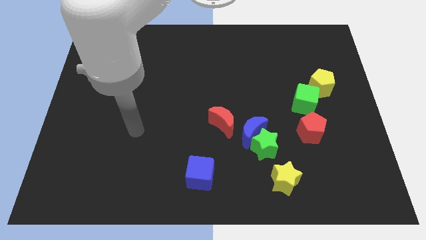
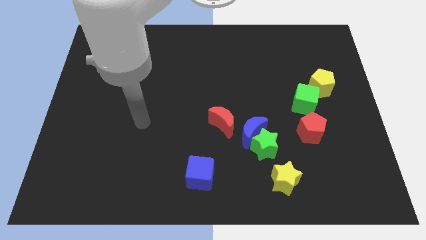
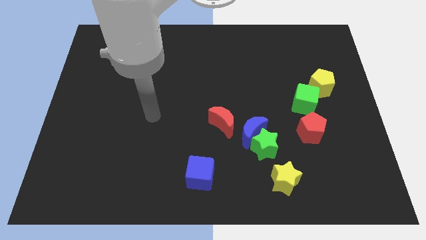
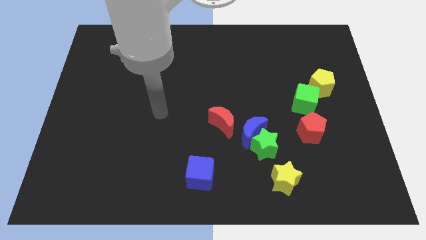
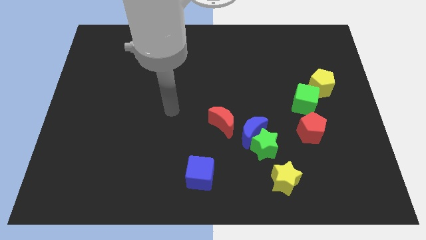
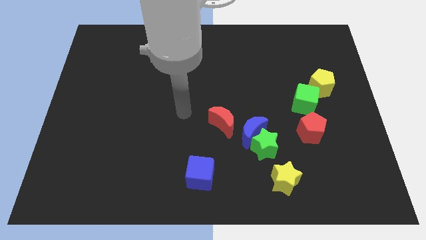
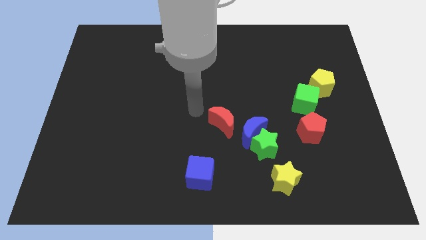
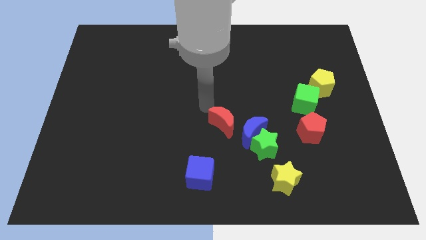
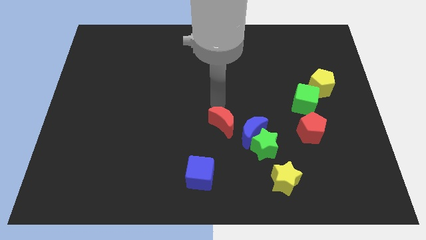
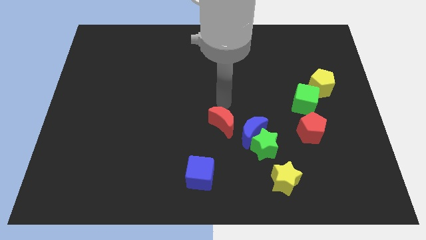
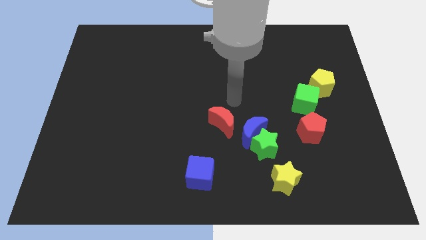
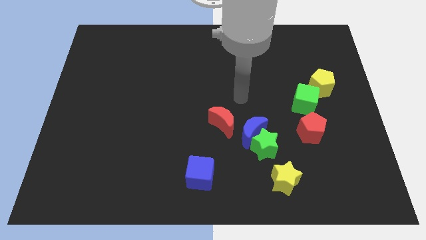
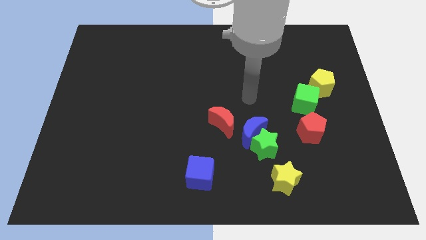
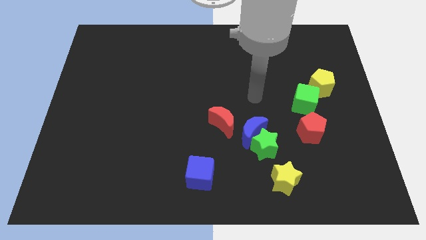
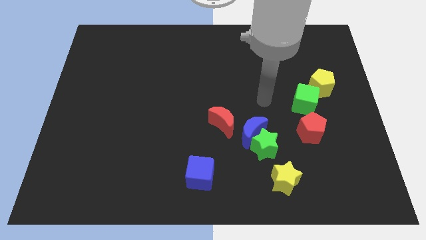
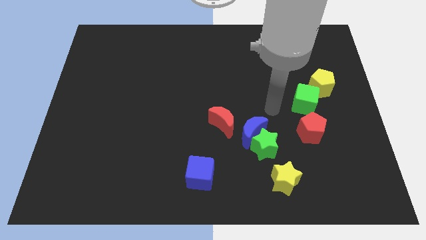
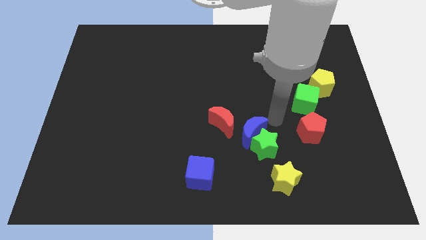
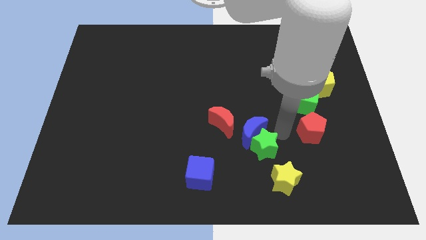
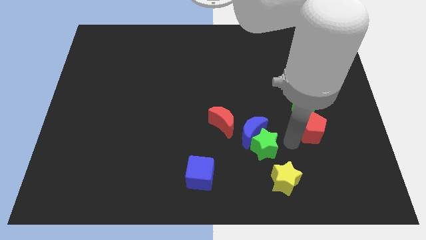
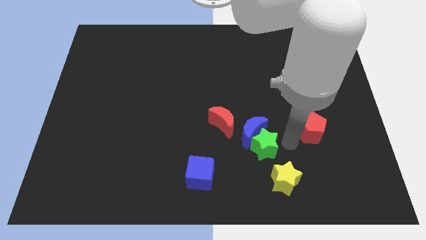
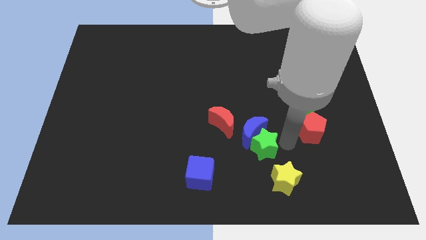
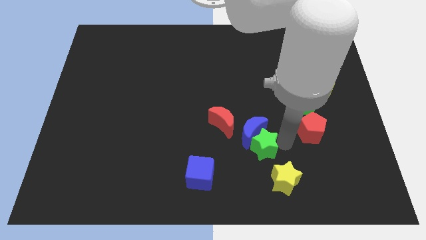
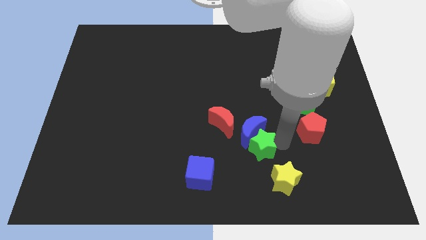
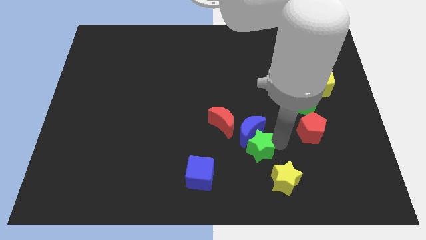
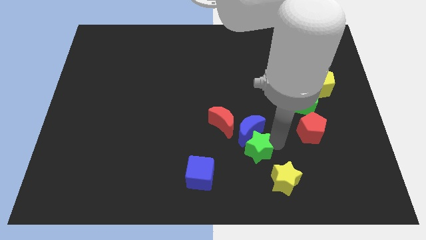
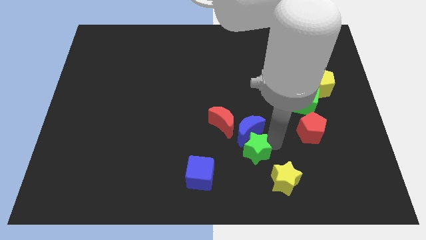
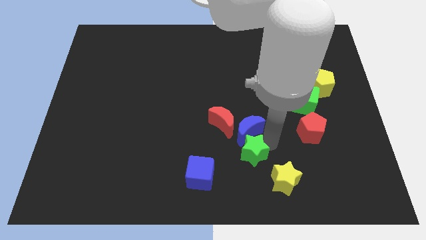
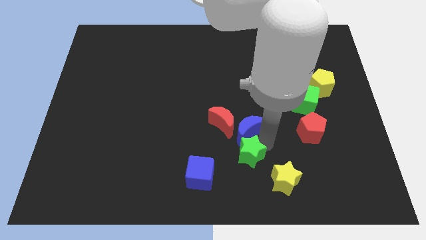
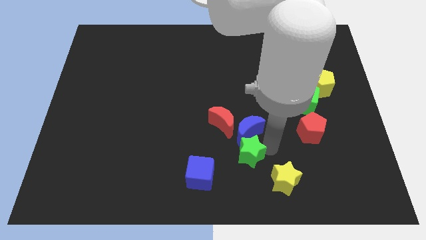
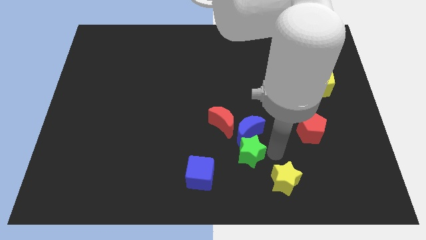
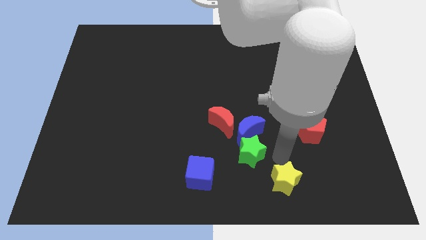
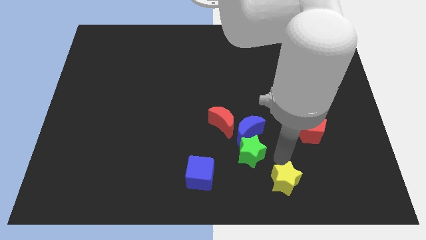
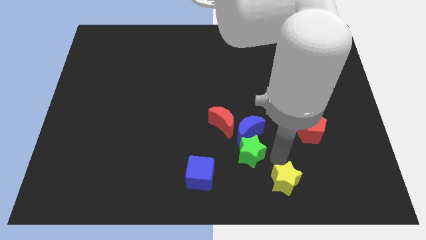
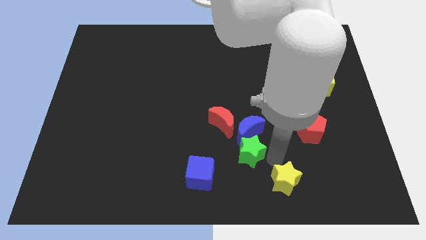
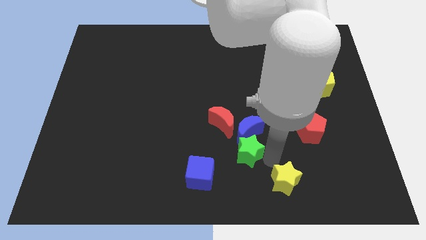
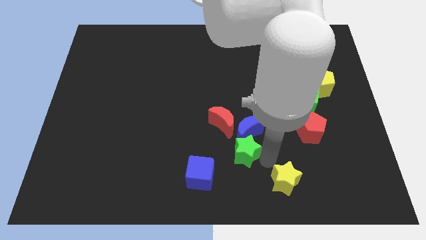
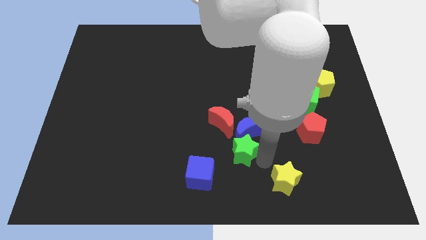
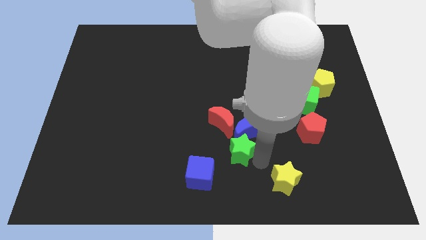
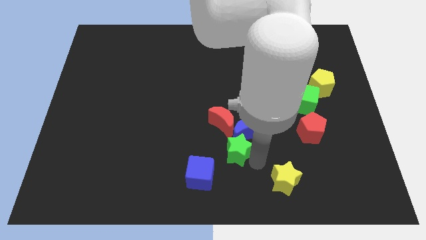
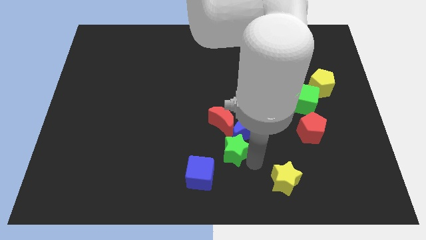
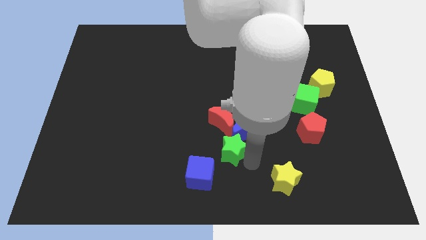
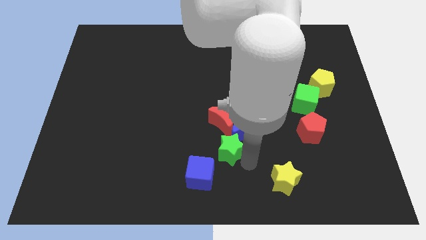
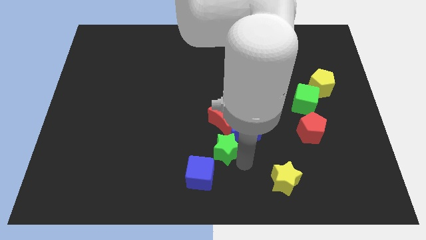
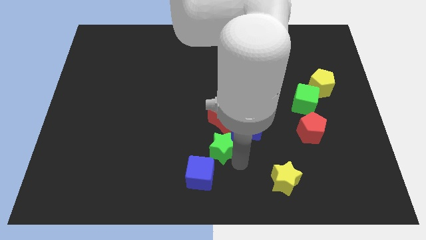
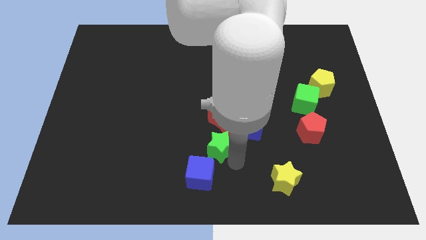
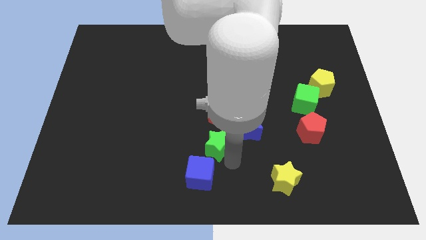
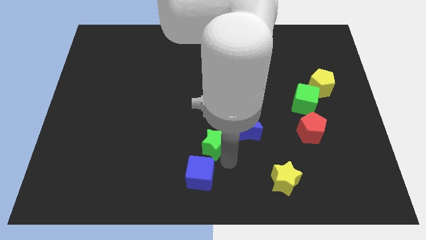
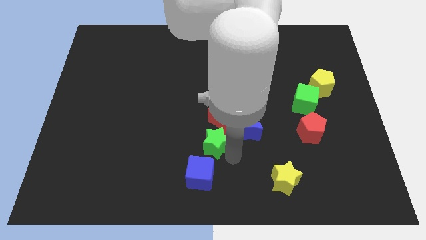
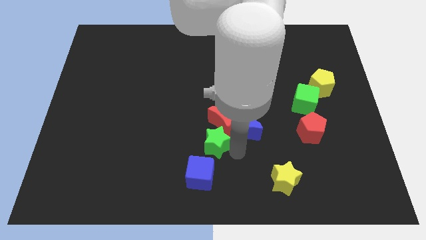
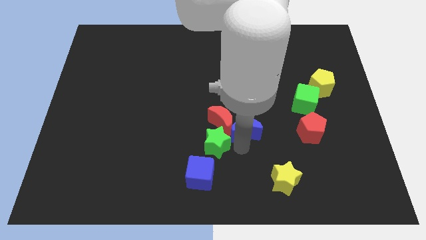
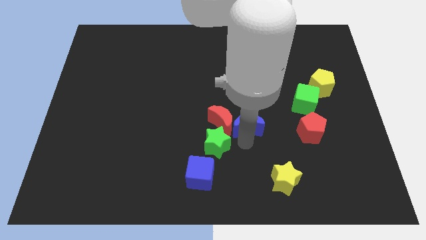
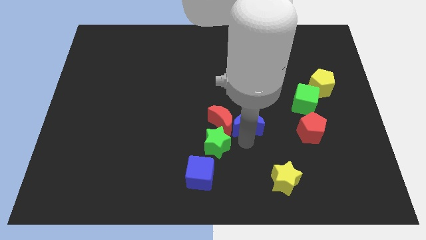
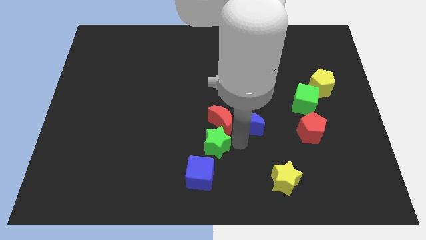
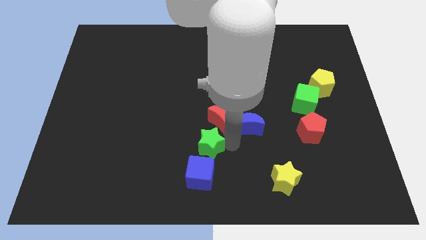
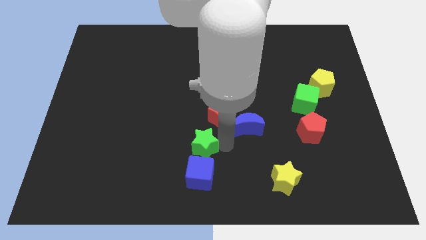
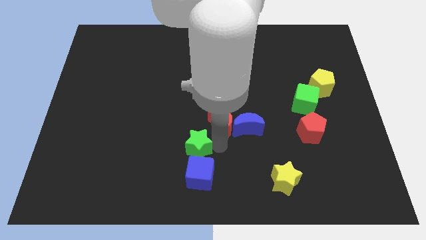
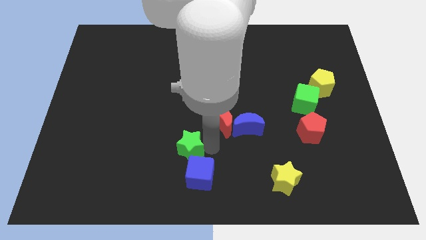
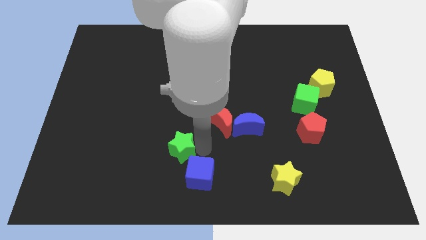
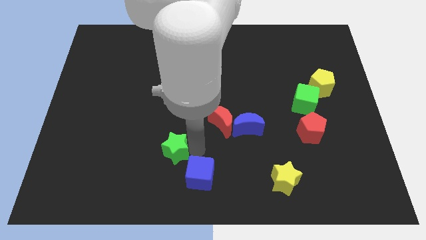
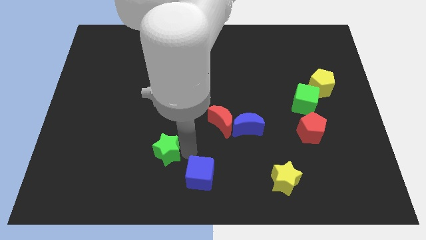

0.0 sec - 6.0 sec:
move the green star left

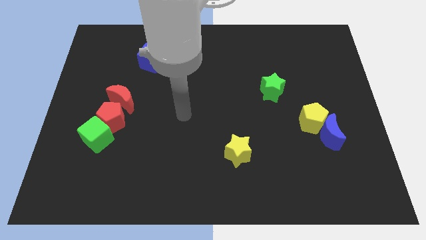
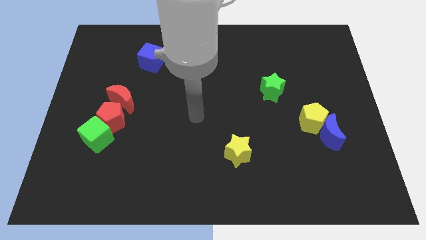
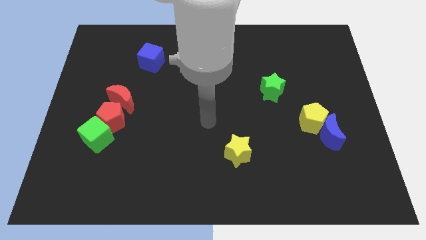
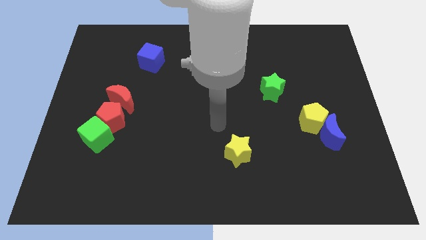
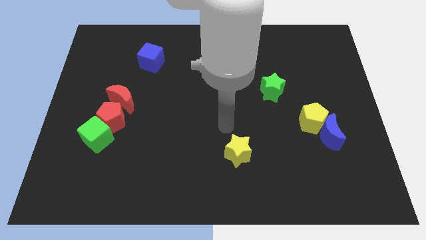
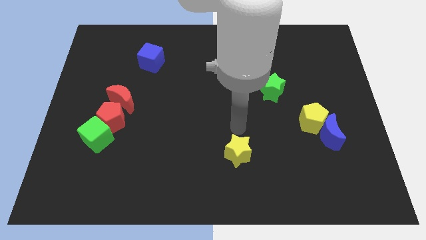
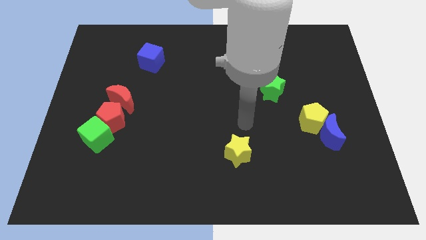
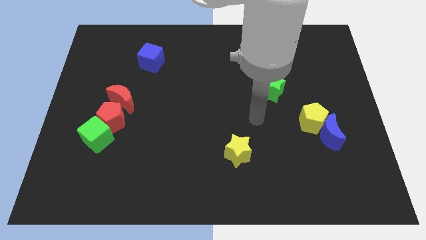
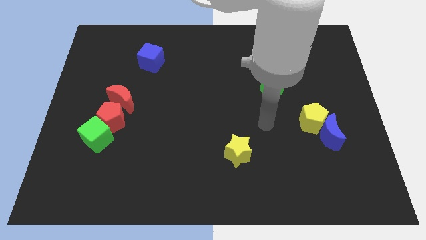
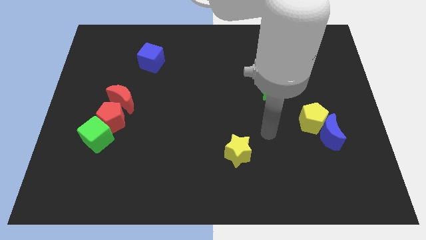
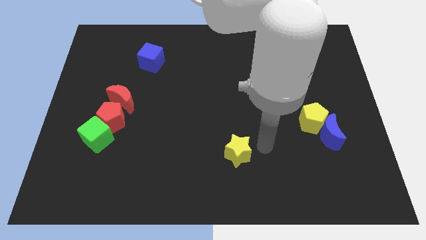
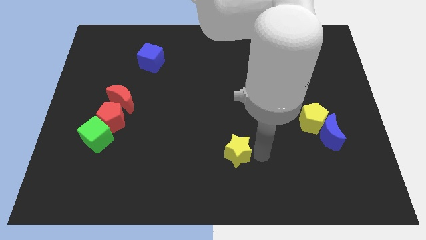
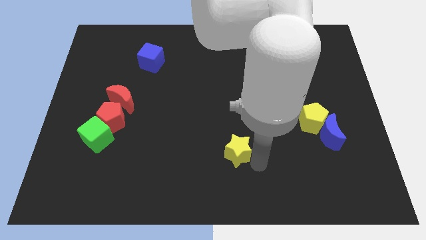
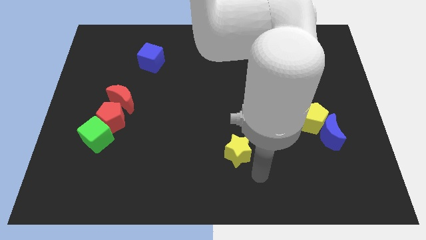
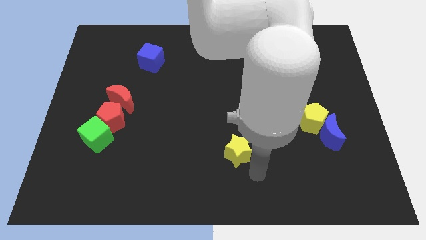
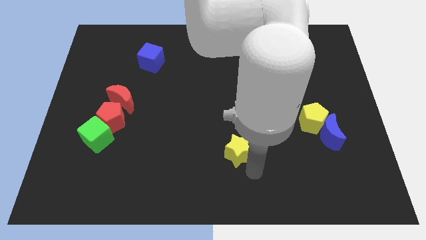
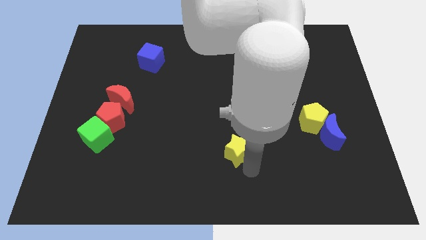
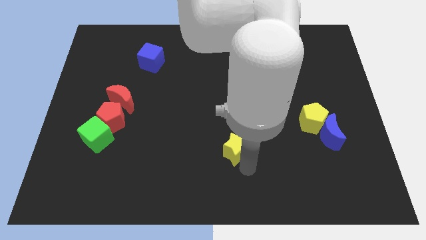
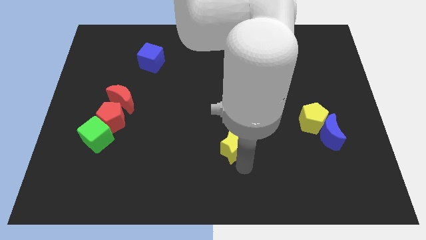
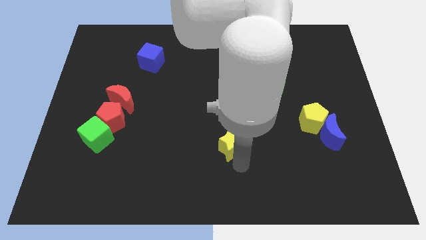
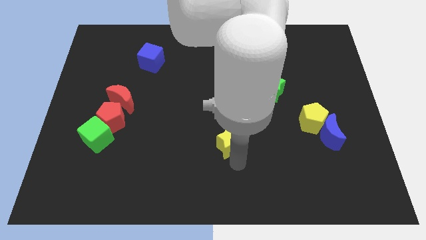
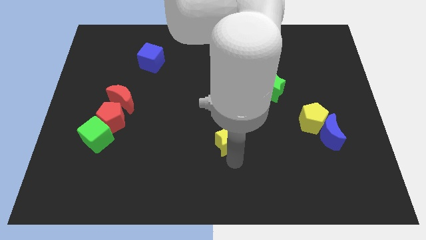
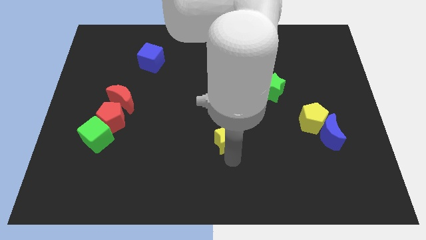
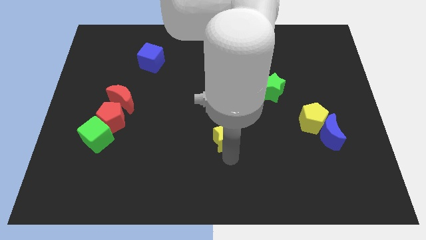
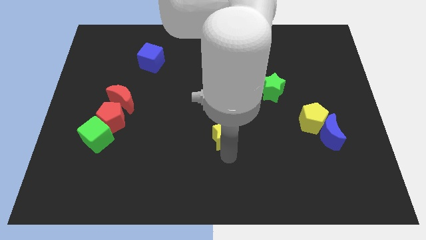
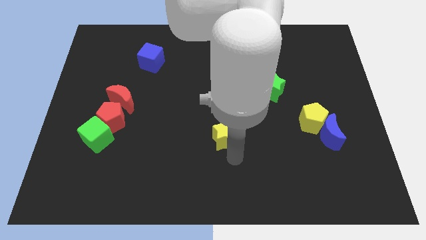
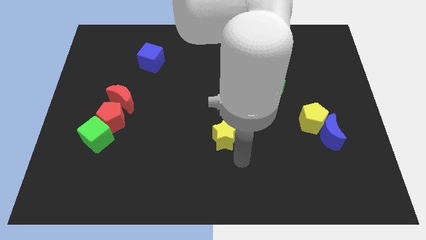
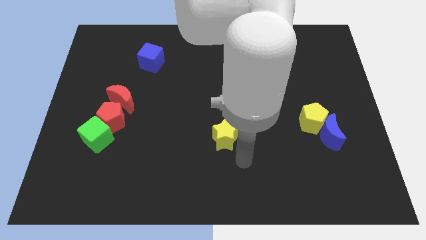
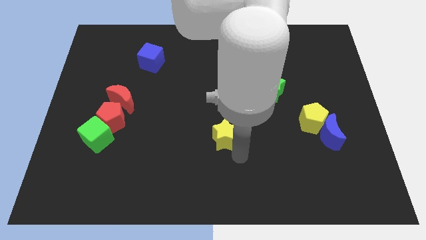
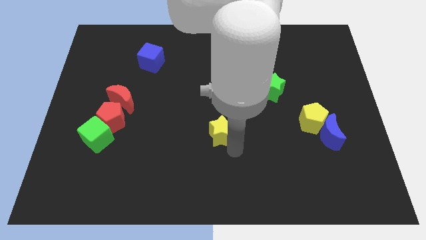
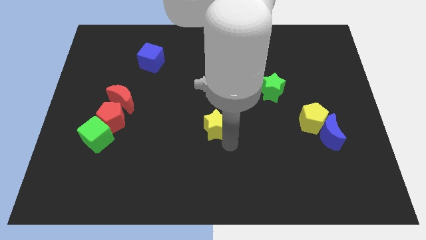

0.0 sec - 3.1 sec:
slide the yellow star diagonally upwards and left a little
